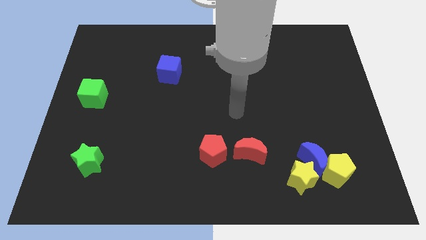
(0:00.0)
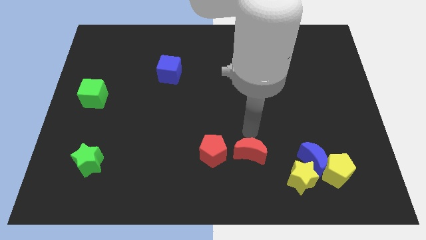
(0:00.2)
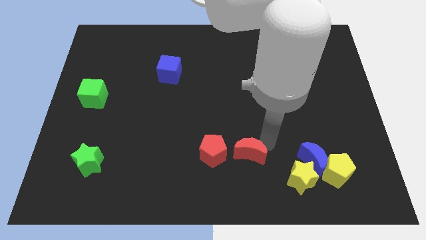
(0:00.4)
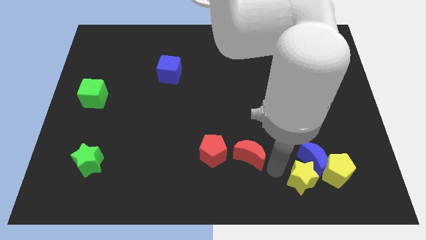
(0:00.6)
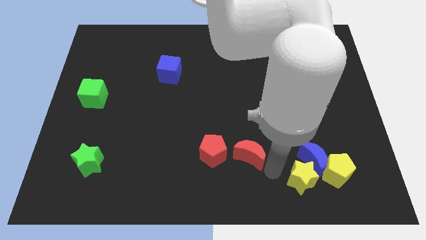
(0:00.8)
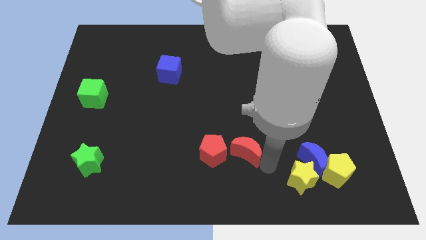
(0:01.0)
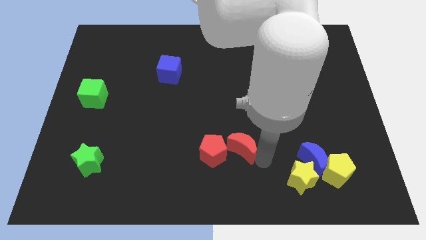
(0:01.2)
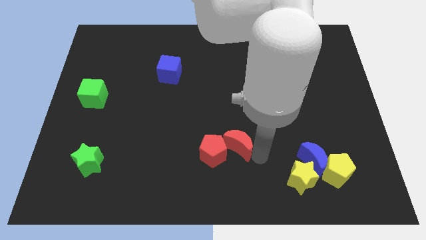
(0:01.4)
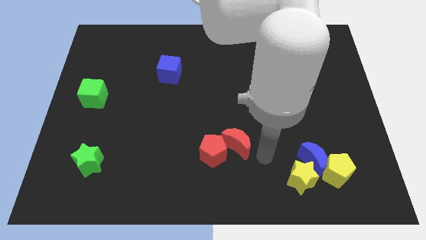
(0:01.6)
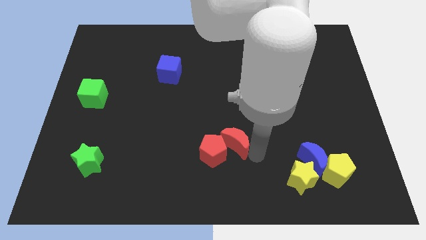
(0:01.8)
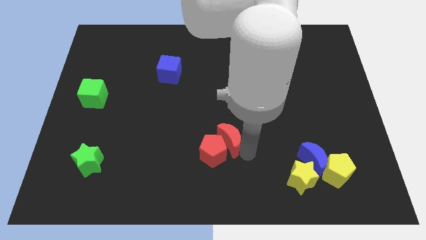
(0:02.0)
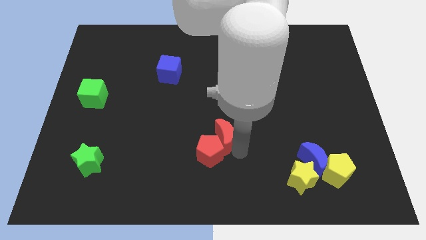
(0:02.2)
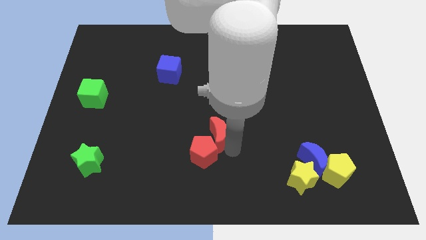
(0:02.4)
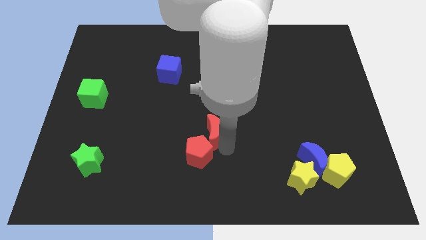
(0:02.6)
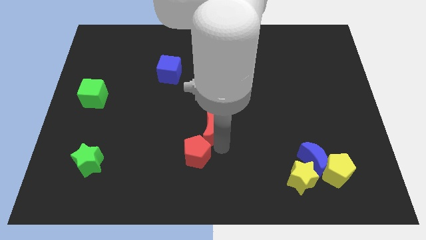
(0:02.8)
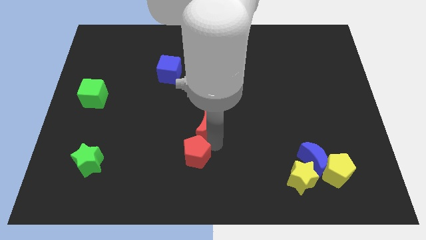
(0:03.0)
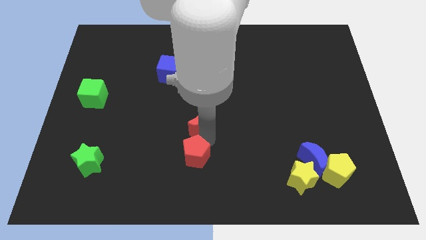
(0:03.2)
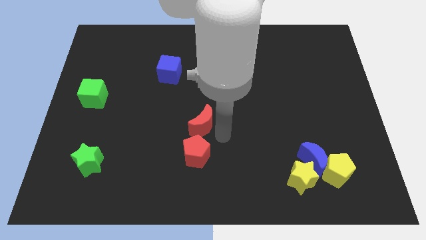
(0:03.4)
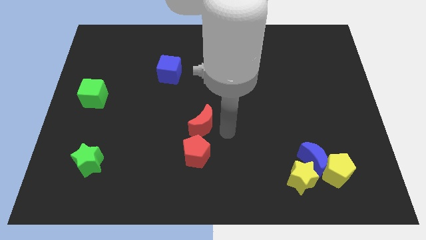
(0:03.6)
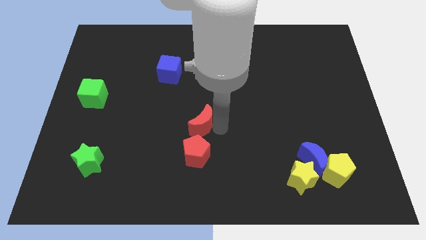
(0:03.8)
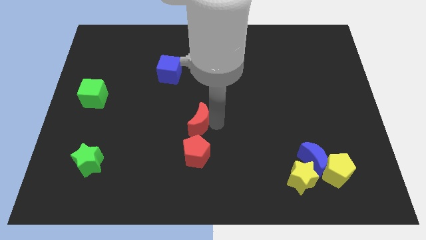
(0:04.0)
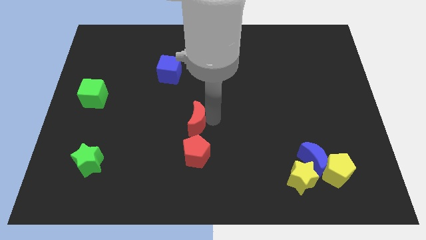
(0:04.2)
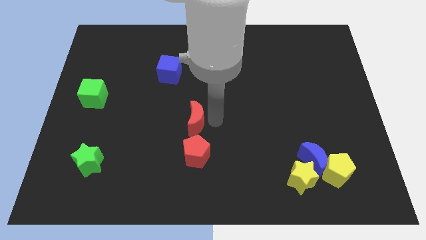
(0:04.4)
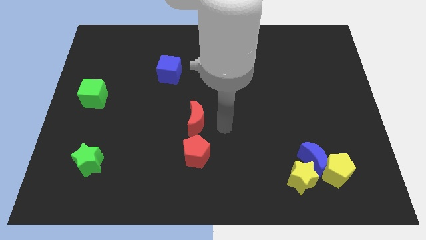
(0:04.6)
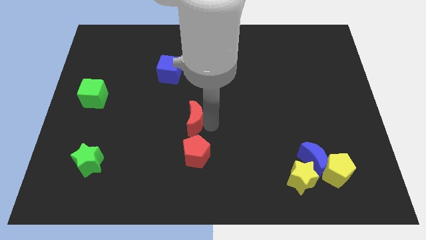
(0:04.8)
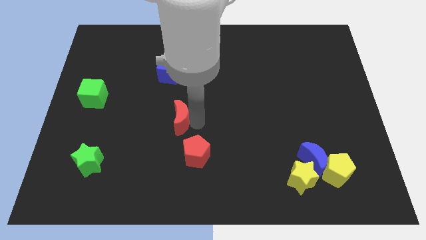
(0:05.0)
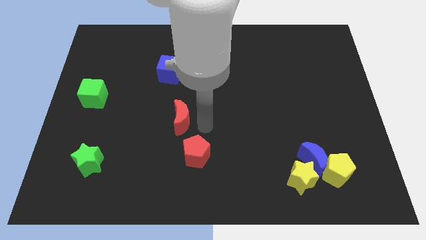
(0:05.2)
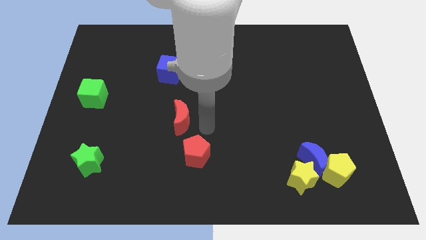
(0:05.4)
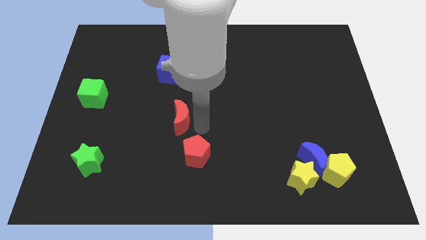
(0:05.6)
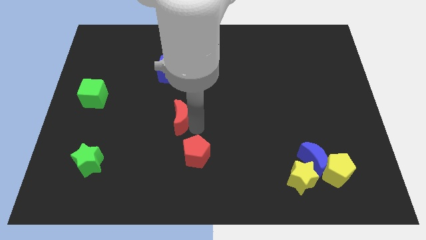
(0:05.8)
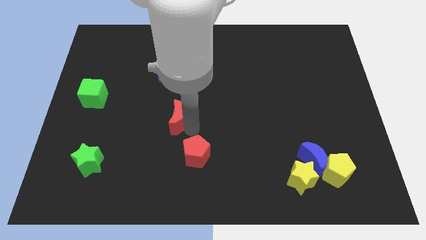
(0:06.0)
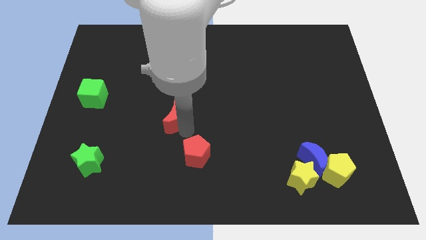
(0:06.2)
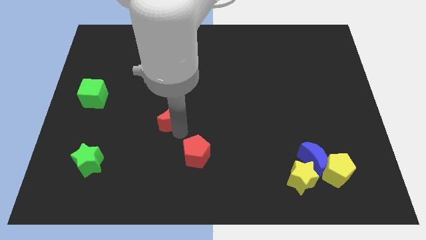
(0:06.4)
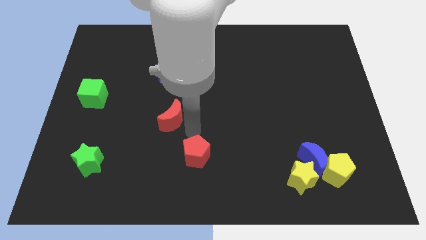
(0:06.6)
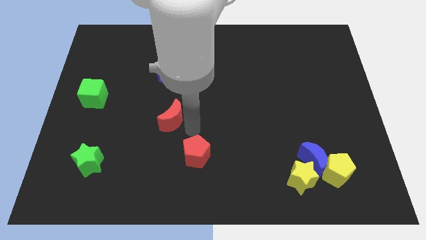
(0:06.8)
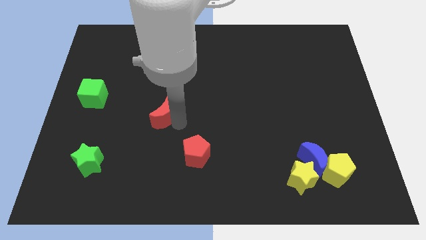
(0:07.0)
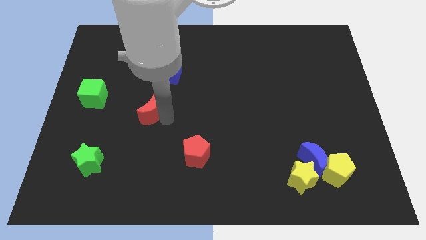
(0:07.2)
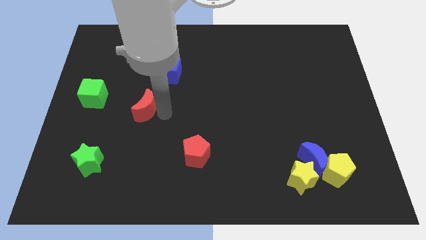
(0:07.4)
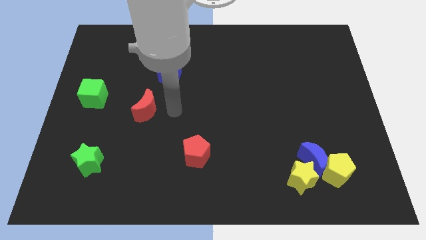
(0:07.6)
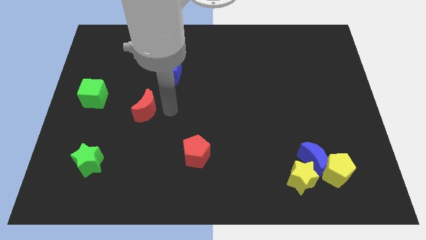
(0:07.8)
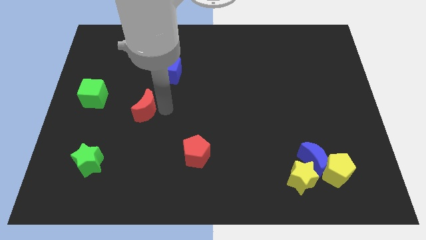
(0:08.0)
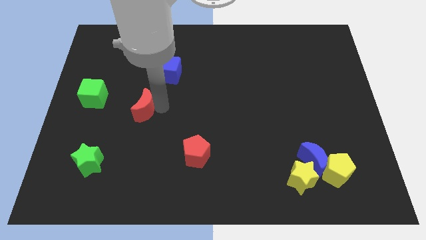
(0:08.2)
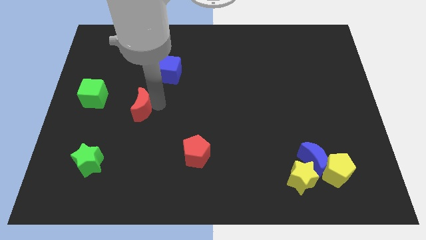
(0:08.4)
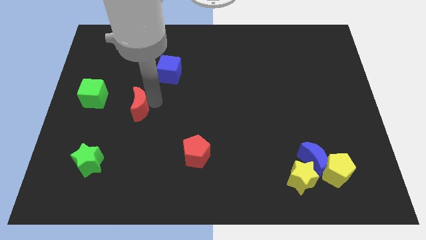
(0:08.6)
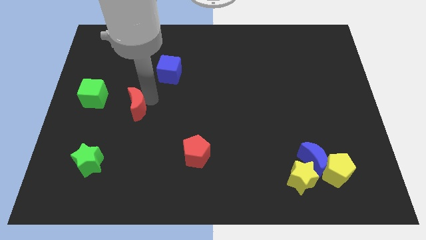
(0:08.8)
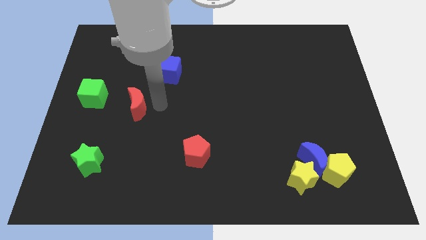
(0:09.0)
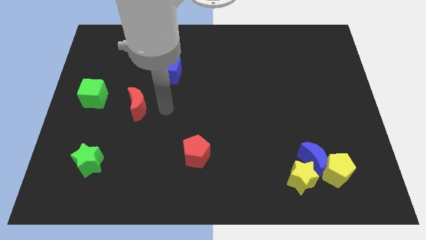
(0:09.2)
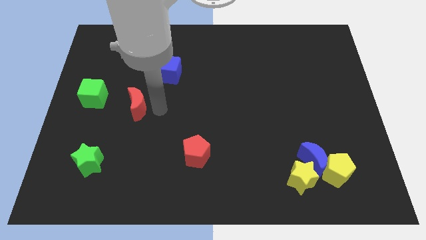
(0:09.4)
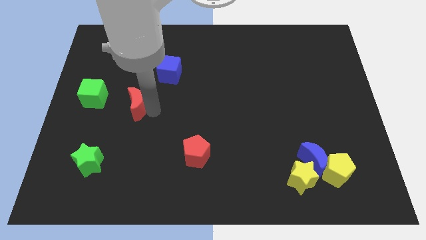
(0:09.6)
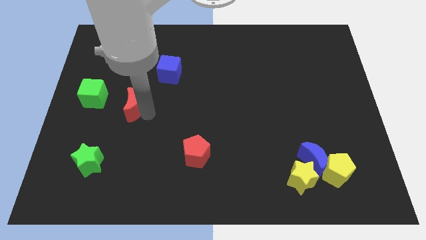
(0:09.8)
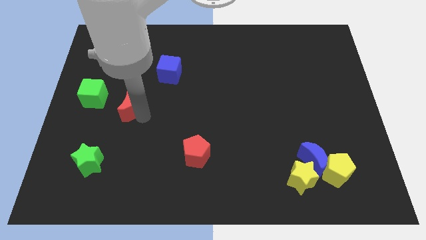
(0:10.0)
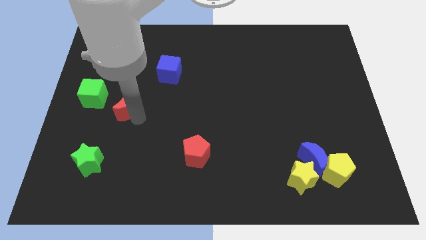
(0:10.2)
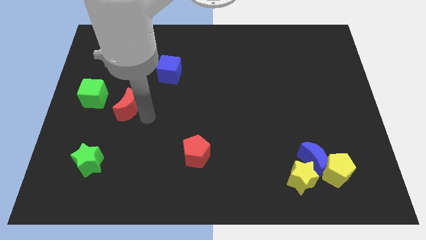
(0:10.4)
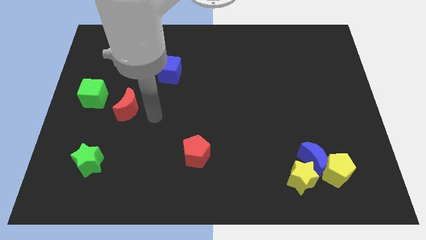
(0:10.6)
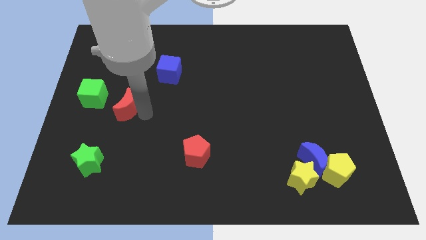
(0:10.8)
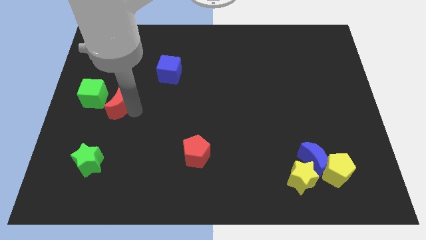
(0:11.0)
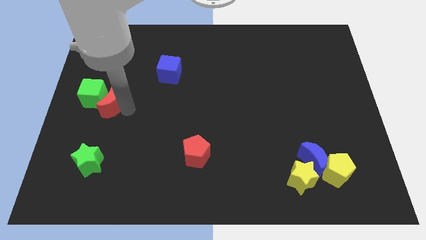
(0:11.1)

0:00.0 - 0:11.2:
push the red moon next to the green cube

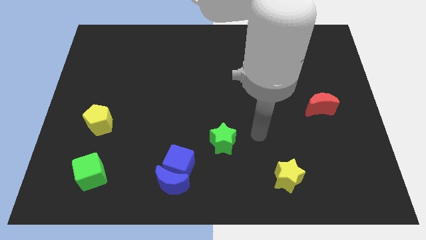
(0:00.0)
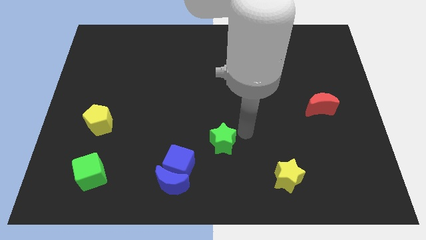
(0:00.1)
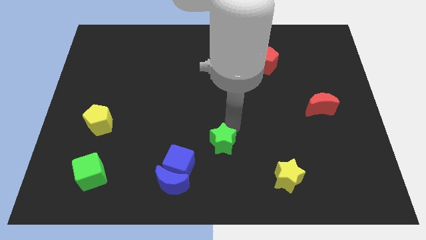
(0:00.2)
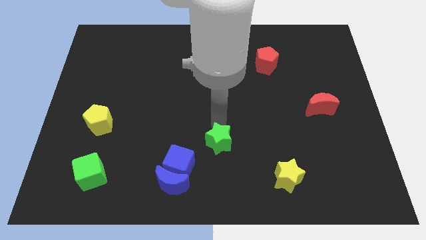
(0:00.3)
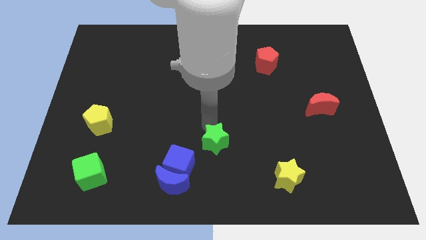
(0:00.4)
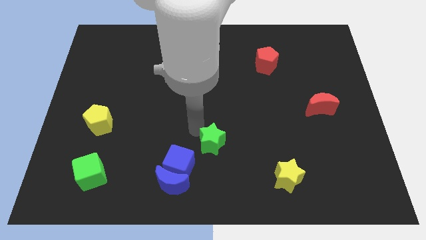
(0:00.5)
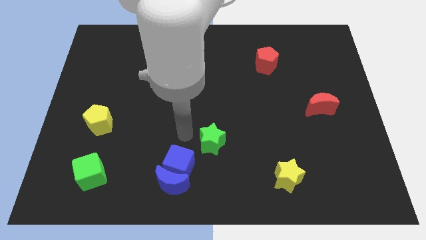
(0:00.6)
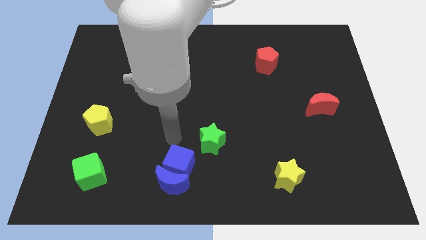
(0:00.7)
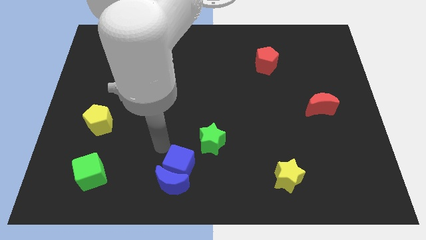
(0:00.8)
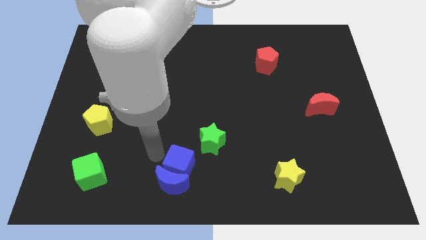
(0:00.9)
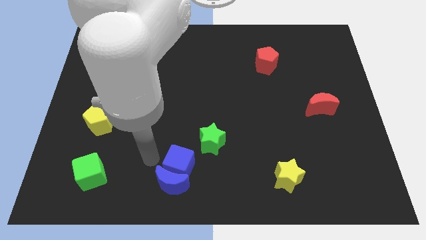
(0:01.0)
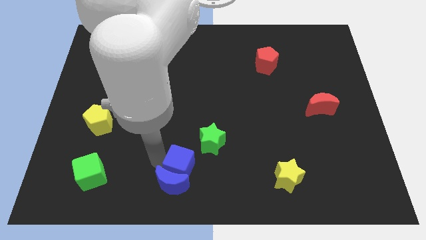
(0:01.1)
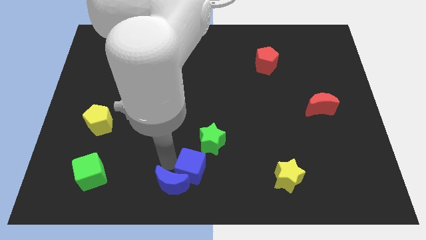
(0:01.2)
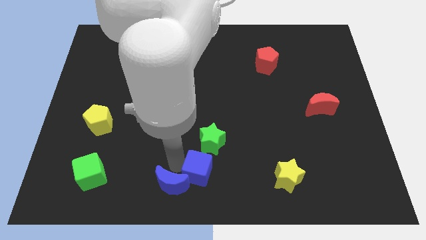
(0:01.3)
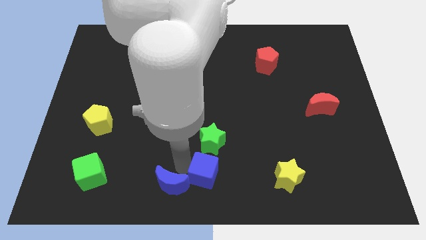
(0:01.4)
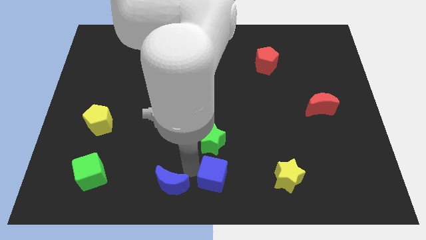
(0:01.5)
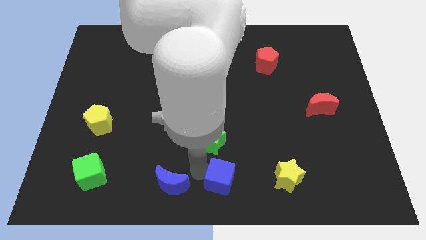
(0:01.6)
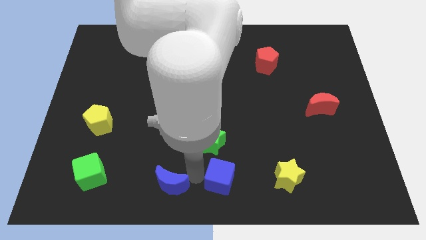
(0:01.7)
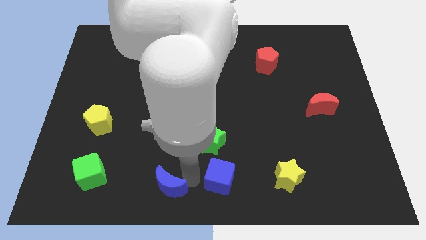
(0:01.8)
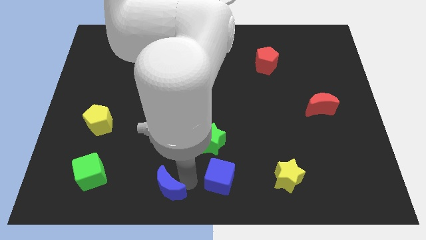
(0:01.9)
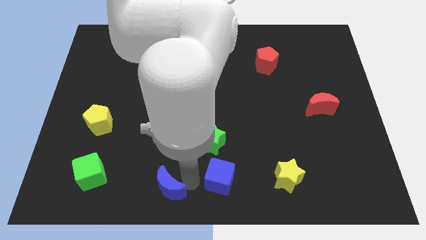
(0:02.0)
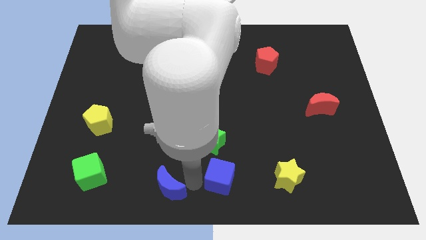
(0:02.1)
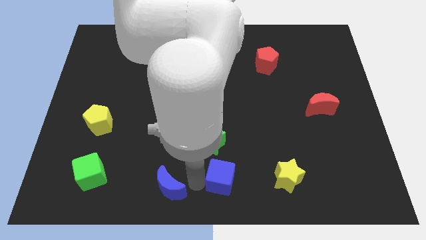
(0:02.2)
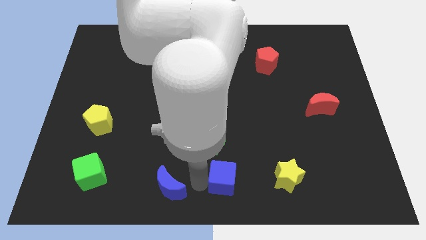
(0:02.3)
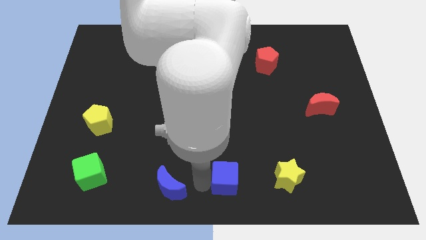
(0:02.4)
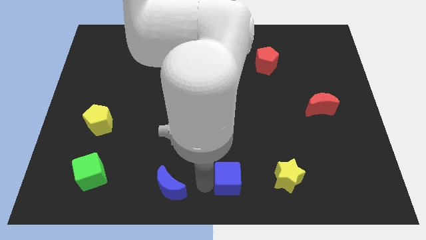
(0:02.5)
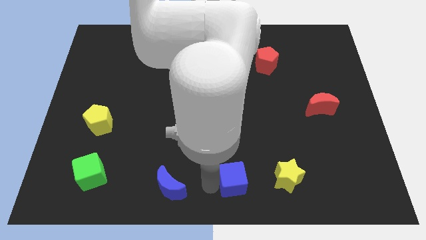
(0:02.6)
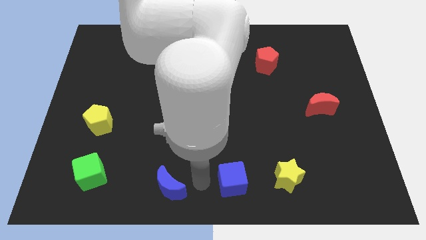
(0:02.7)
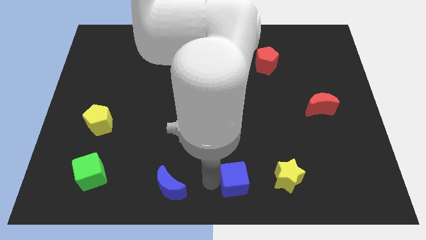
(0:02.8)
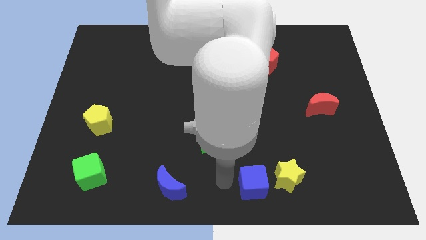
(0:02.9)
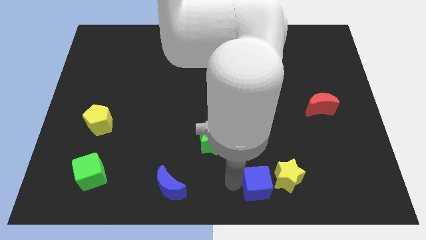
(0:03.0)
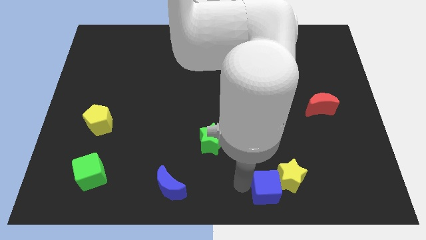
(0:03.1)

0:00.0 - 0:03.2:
slide the blue cube towards the yellow star
